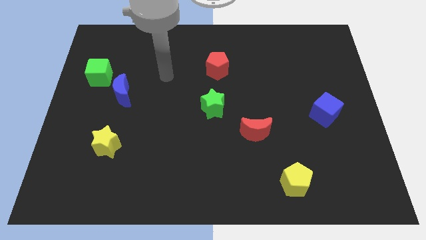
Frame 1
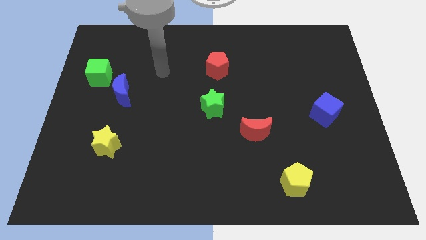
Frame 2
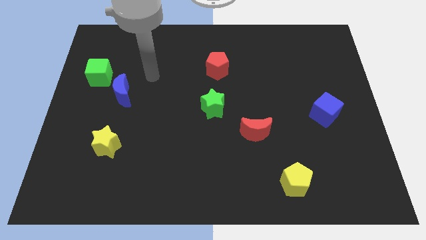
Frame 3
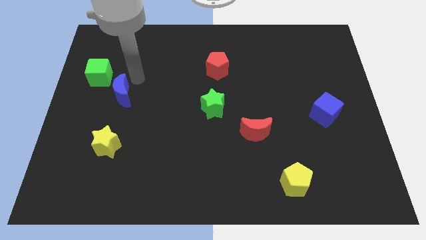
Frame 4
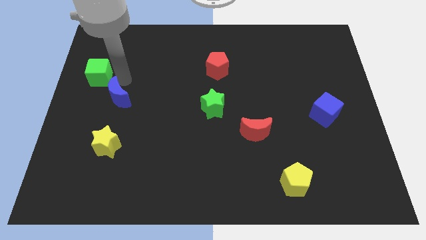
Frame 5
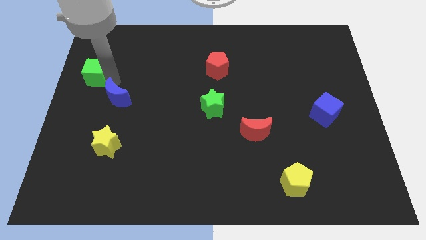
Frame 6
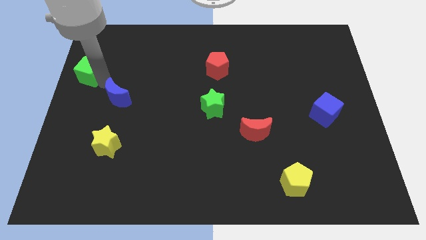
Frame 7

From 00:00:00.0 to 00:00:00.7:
move the blue moon away from the green cube

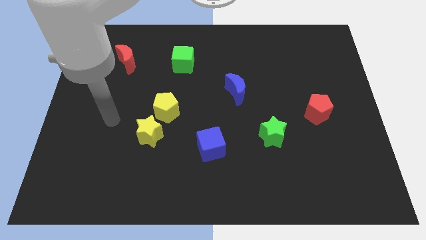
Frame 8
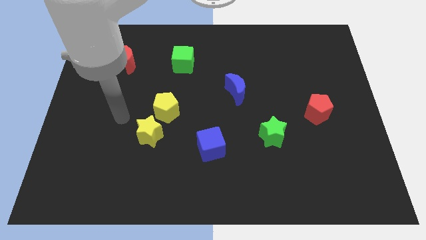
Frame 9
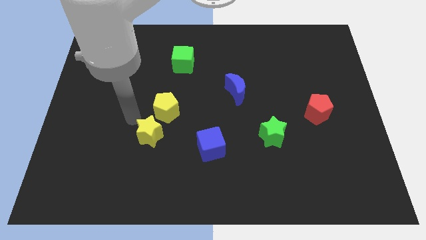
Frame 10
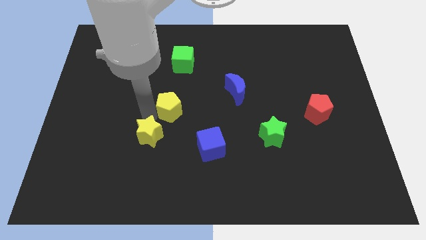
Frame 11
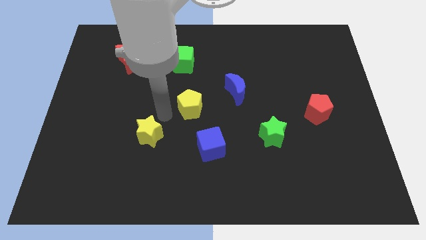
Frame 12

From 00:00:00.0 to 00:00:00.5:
separate the yellow star from the yellow pentagon

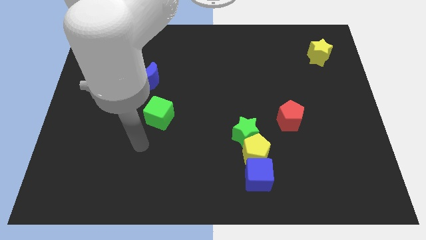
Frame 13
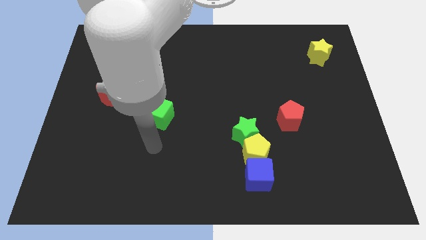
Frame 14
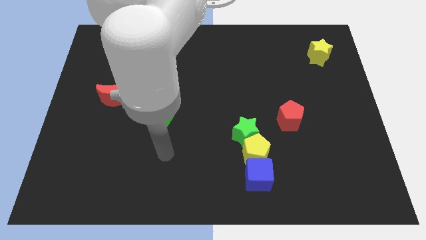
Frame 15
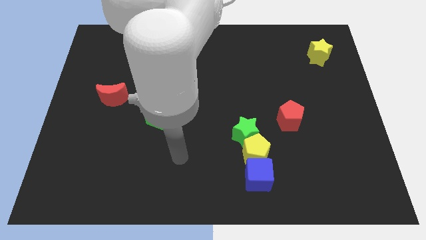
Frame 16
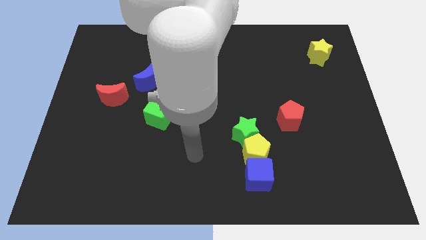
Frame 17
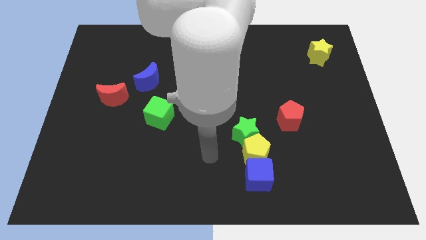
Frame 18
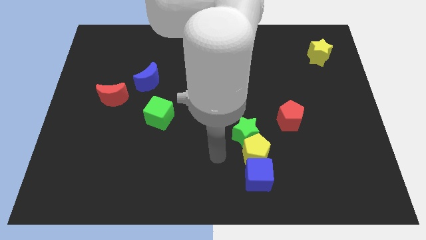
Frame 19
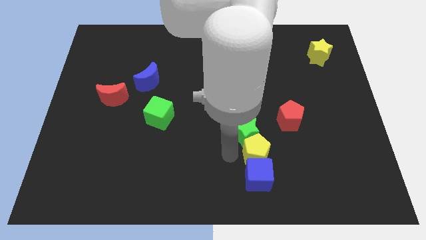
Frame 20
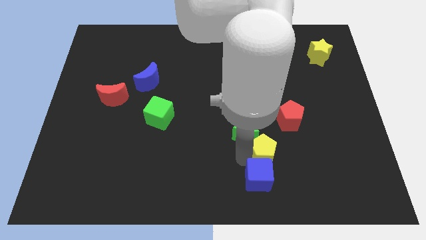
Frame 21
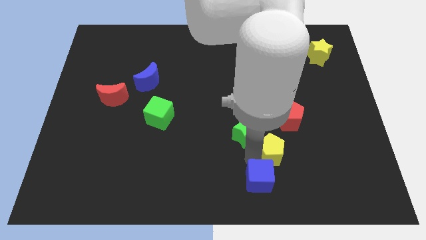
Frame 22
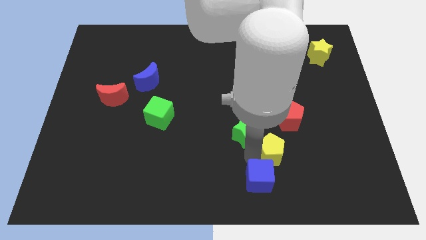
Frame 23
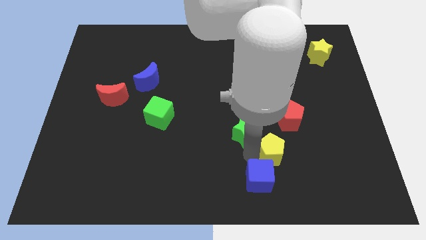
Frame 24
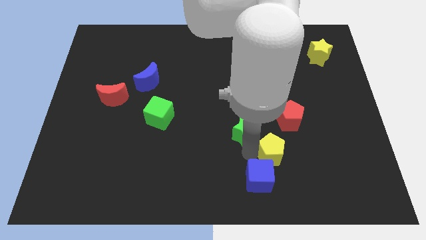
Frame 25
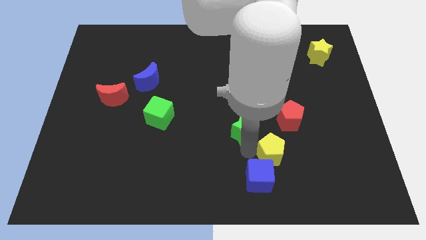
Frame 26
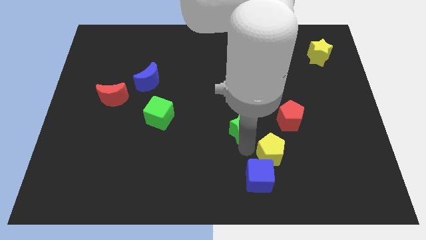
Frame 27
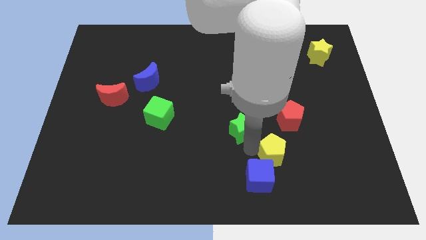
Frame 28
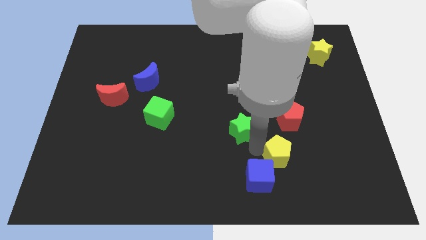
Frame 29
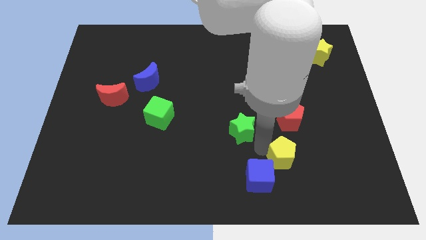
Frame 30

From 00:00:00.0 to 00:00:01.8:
move the green star away from the yellow pentagon

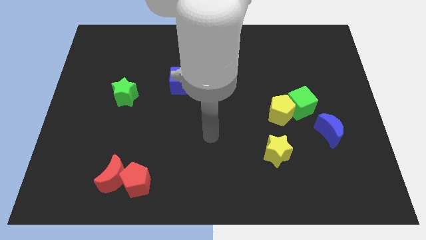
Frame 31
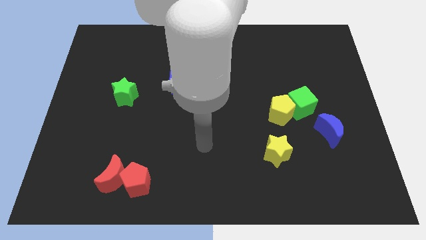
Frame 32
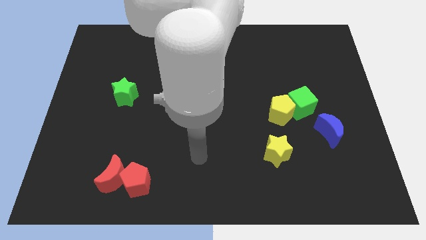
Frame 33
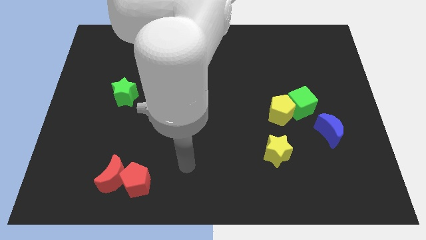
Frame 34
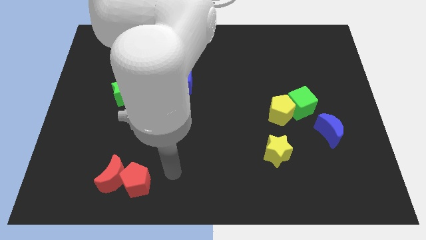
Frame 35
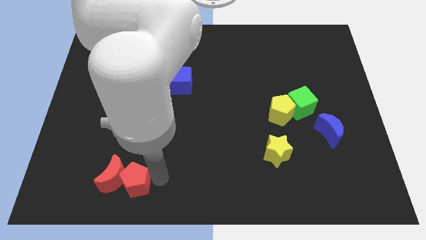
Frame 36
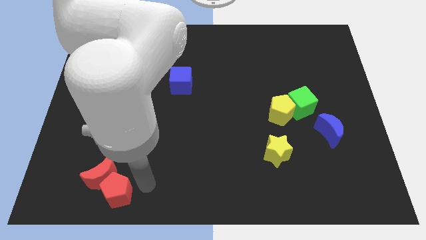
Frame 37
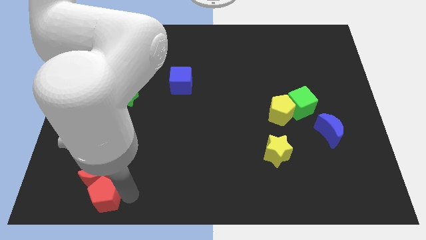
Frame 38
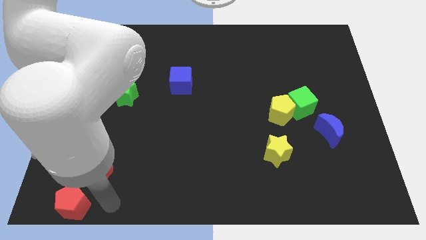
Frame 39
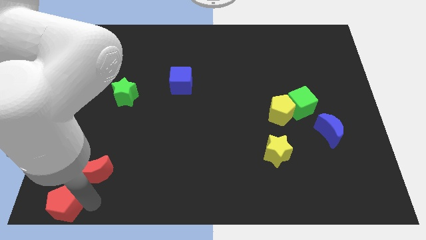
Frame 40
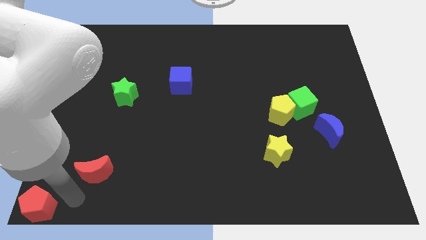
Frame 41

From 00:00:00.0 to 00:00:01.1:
move the red moon away from the red pentagon

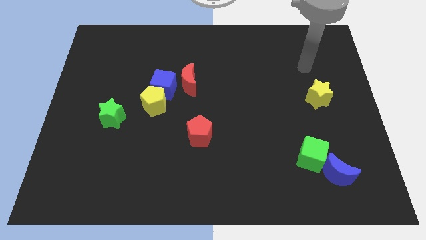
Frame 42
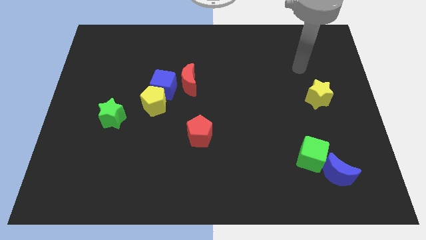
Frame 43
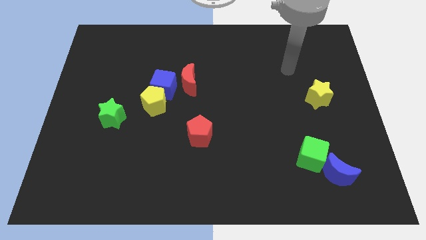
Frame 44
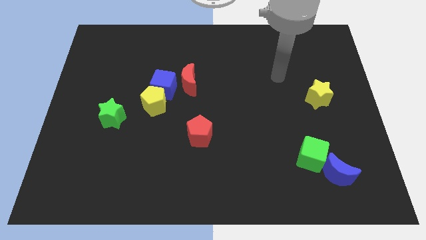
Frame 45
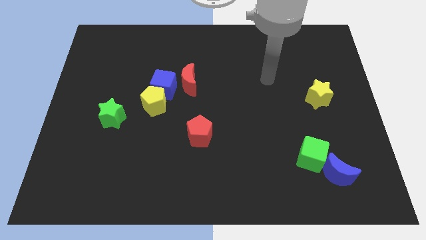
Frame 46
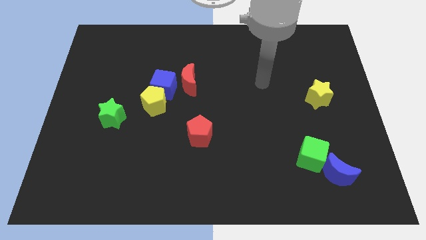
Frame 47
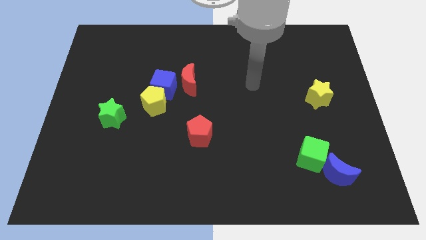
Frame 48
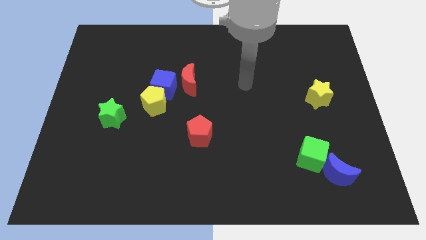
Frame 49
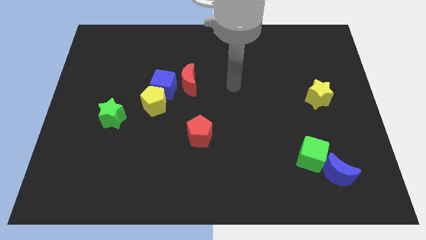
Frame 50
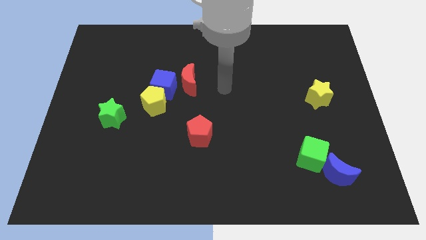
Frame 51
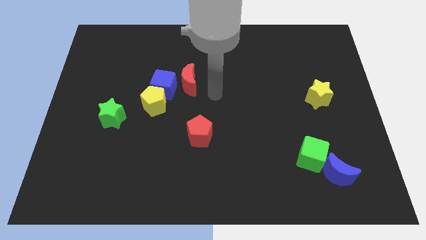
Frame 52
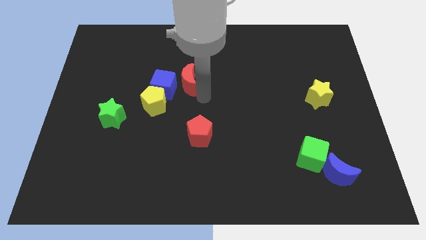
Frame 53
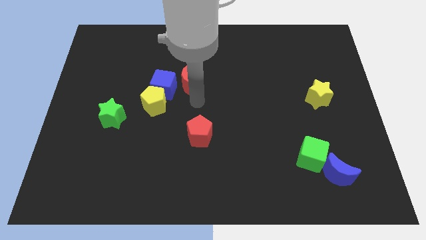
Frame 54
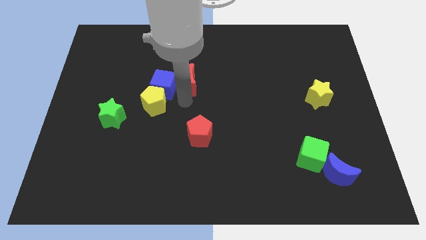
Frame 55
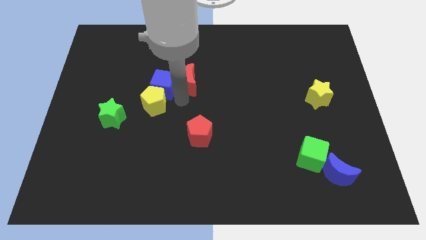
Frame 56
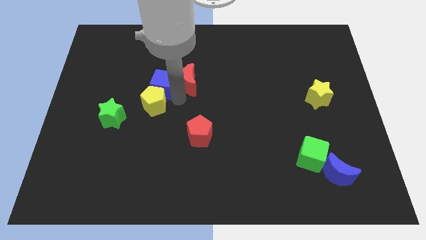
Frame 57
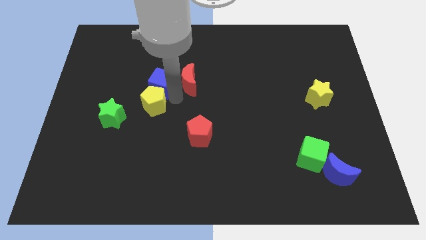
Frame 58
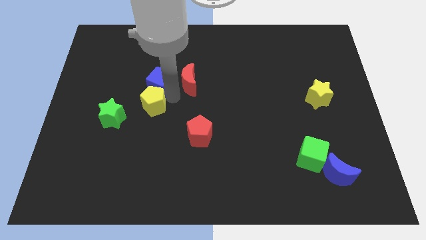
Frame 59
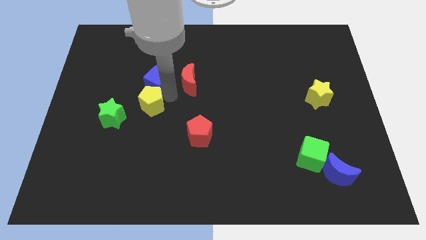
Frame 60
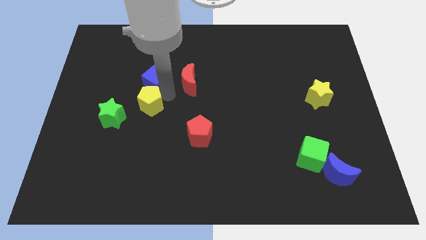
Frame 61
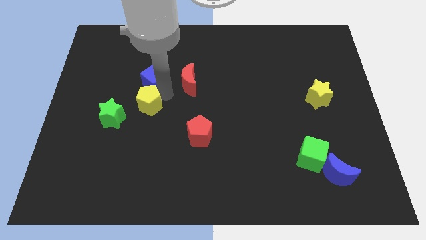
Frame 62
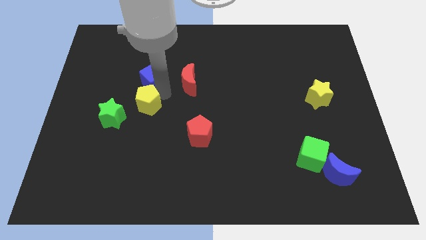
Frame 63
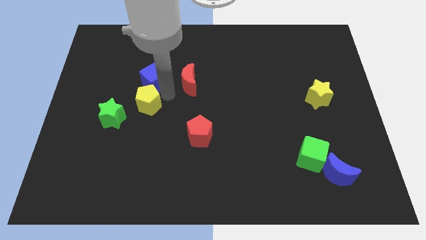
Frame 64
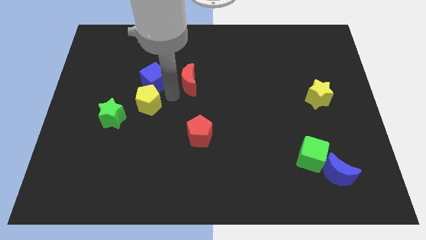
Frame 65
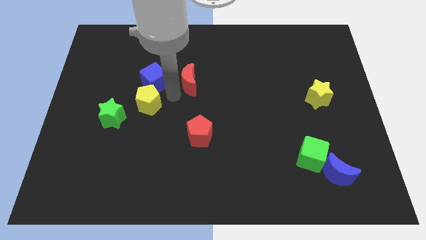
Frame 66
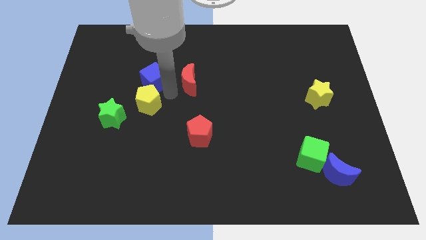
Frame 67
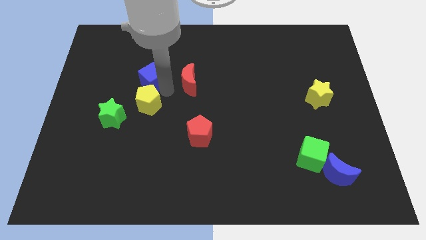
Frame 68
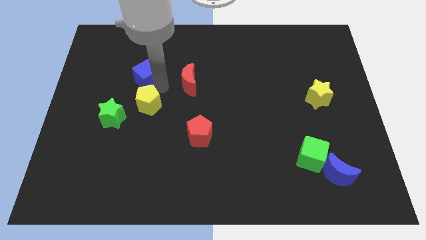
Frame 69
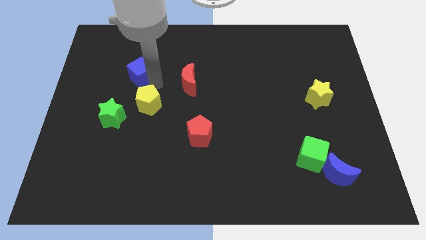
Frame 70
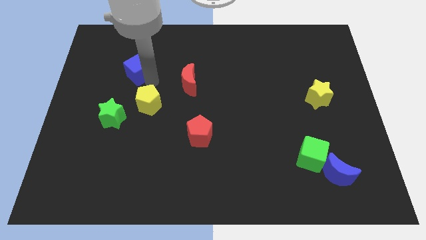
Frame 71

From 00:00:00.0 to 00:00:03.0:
separate the blue cube from the yellow pentagon and red moon

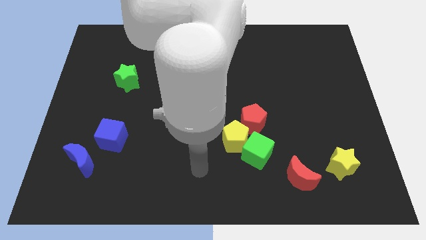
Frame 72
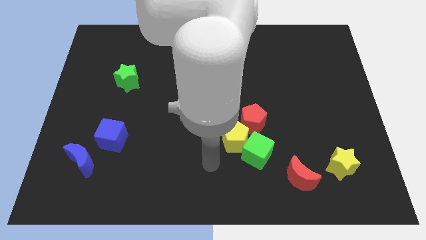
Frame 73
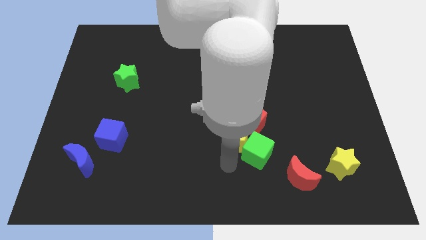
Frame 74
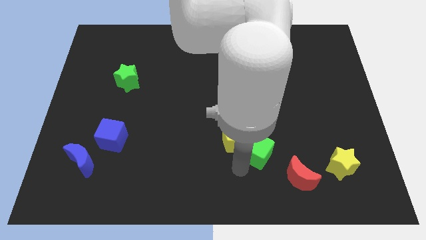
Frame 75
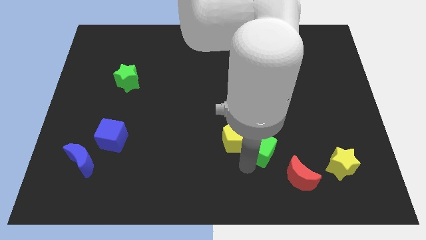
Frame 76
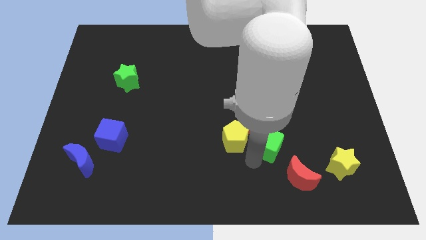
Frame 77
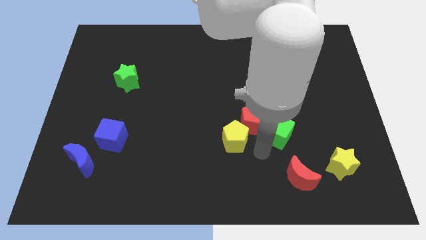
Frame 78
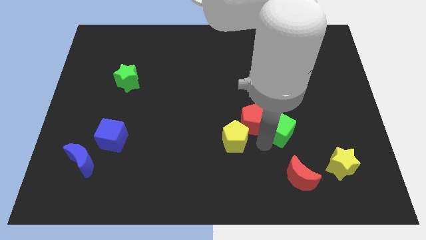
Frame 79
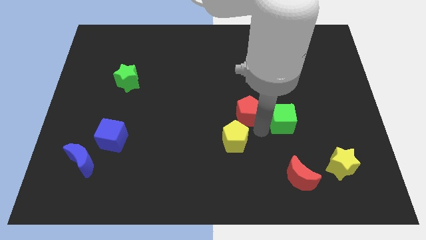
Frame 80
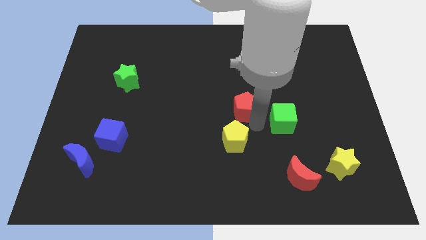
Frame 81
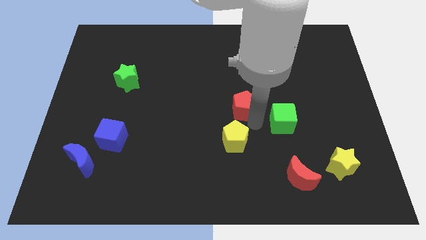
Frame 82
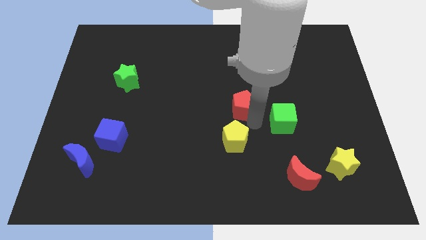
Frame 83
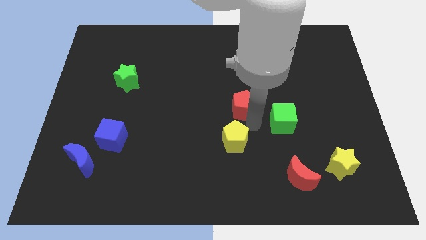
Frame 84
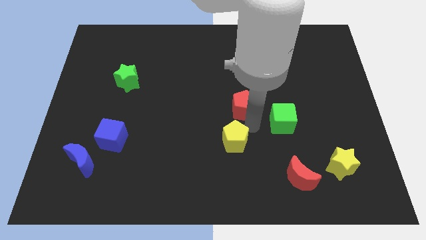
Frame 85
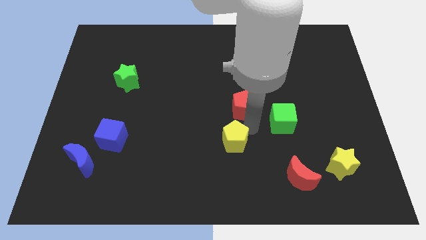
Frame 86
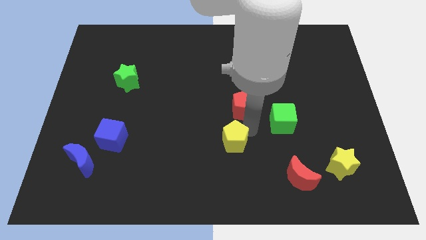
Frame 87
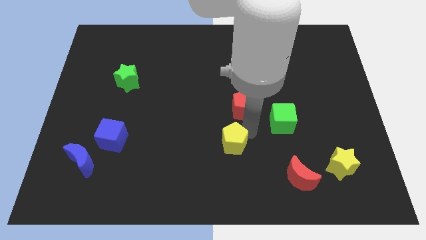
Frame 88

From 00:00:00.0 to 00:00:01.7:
move the yellow pentagon away from the green cube and red pentagon

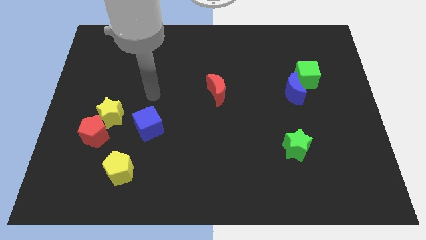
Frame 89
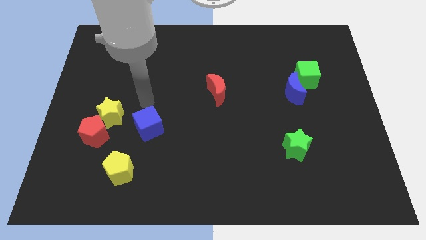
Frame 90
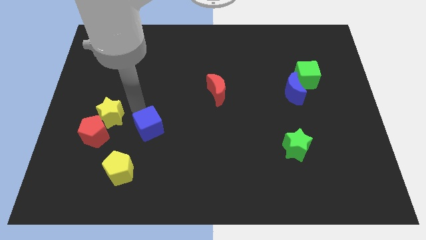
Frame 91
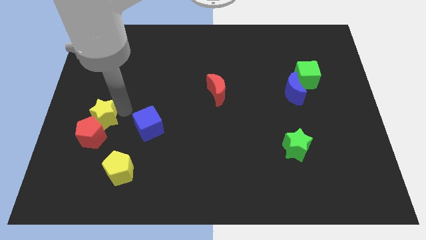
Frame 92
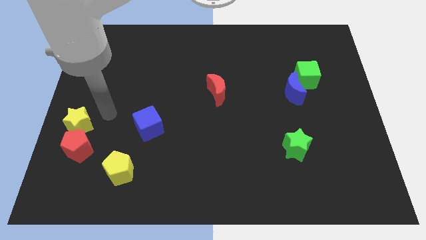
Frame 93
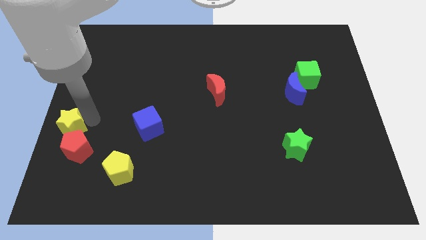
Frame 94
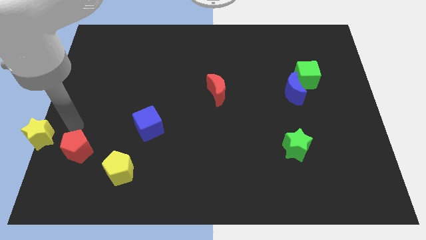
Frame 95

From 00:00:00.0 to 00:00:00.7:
pull the red pentagon apart from the yellow star

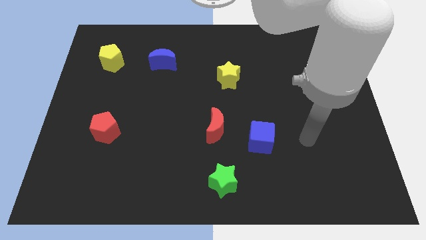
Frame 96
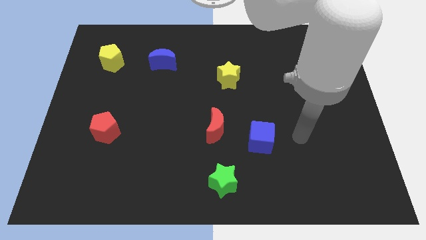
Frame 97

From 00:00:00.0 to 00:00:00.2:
pull the red moon apart from the blue cube
